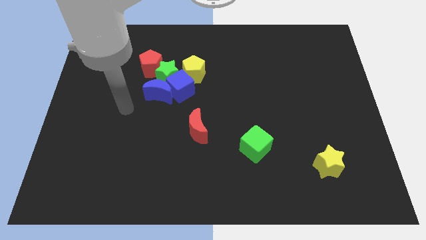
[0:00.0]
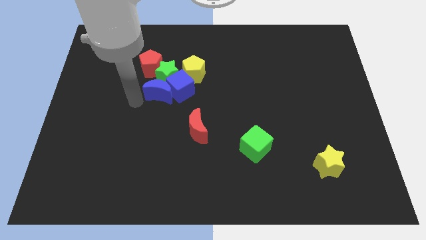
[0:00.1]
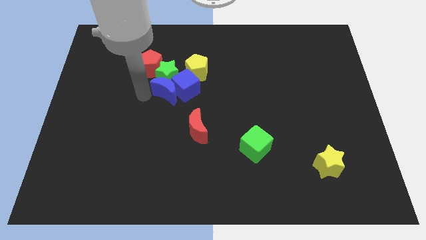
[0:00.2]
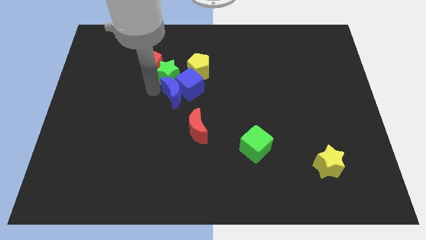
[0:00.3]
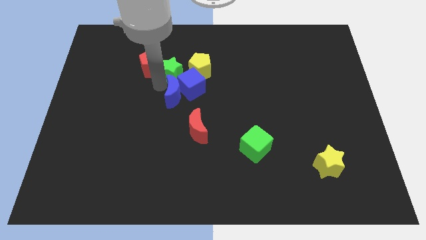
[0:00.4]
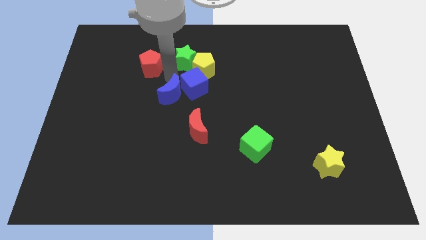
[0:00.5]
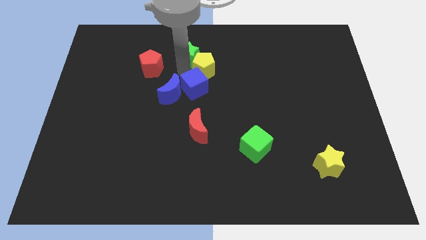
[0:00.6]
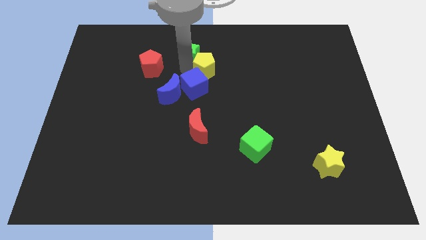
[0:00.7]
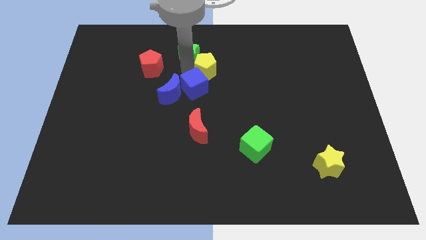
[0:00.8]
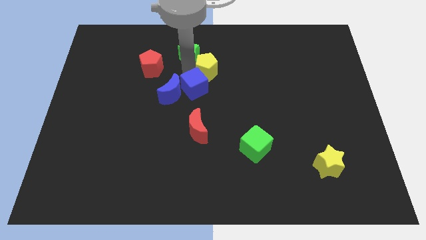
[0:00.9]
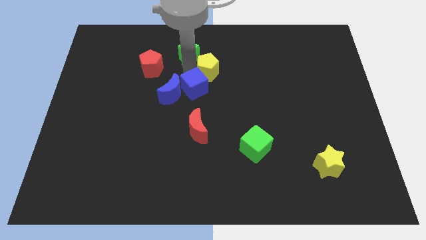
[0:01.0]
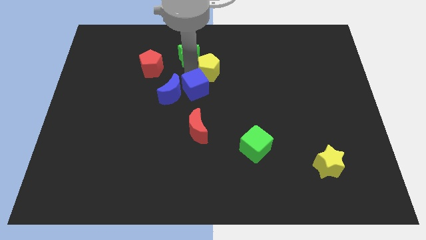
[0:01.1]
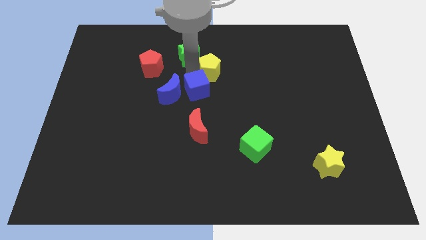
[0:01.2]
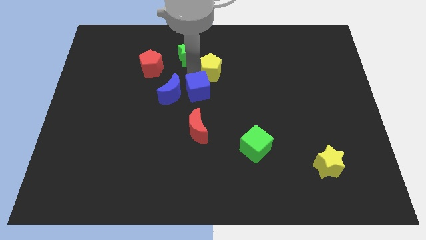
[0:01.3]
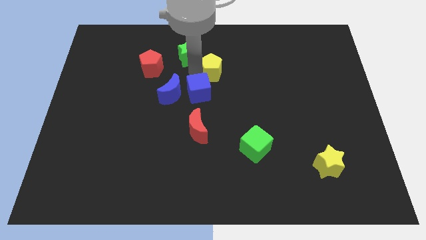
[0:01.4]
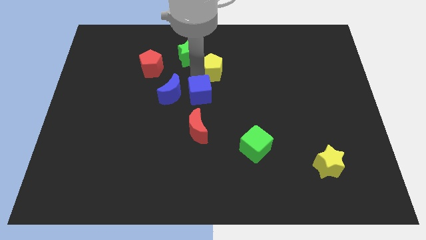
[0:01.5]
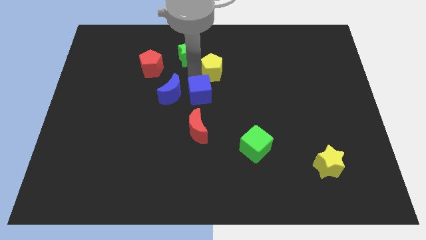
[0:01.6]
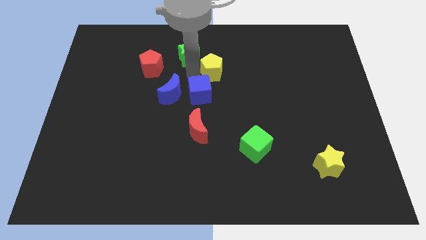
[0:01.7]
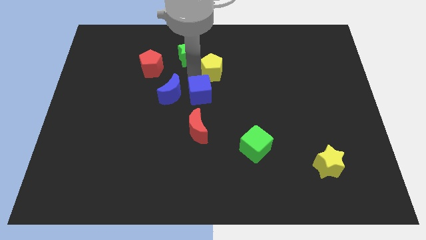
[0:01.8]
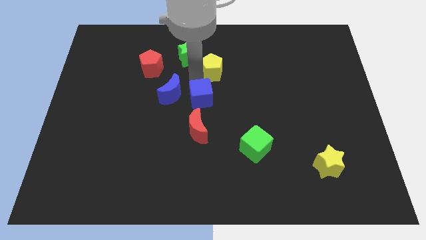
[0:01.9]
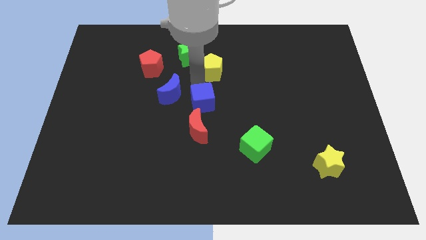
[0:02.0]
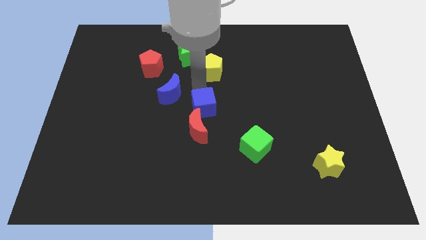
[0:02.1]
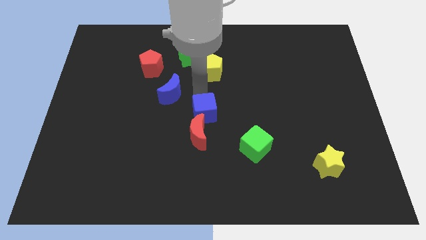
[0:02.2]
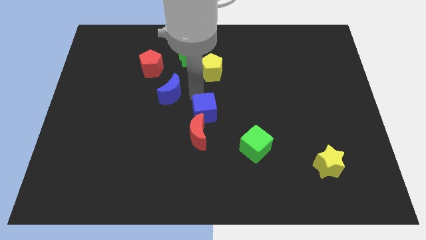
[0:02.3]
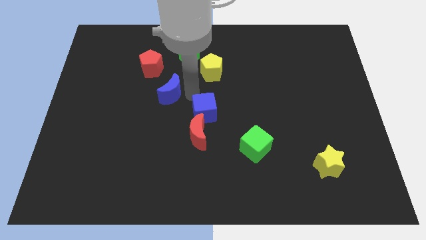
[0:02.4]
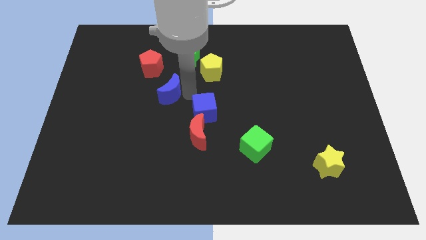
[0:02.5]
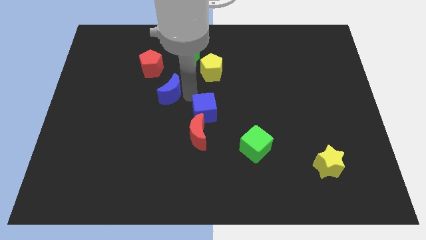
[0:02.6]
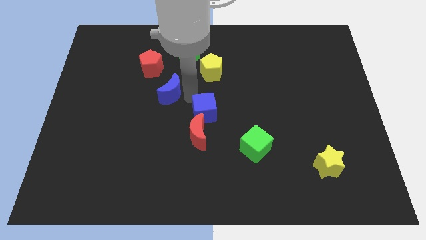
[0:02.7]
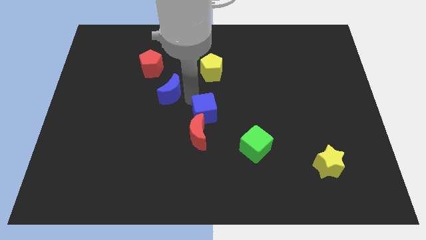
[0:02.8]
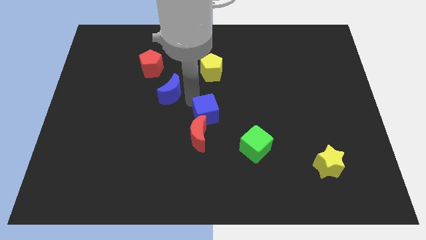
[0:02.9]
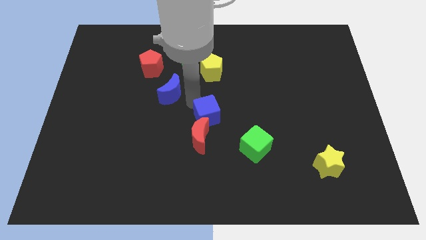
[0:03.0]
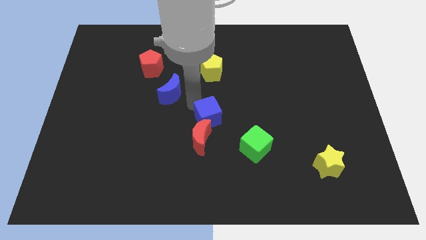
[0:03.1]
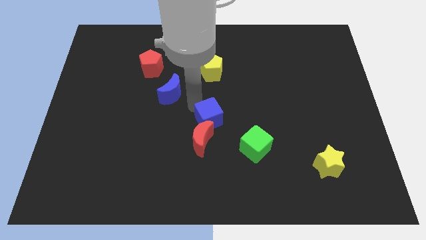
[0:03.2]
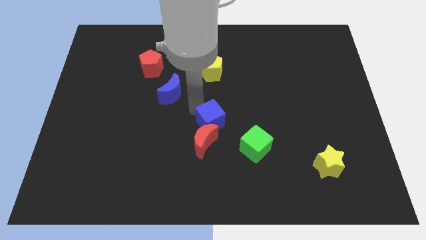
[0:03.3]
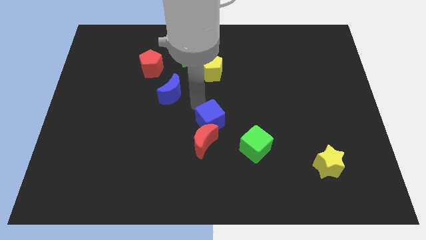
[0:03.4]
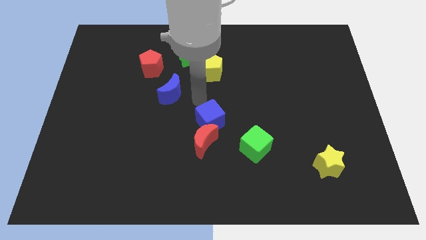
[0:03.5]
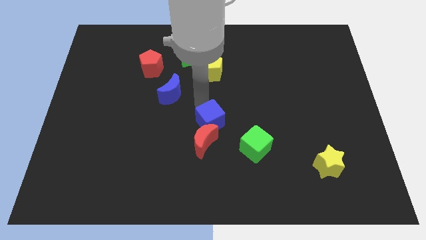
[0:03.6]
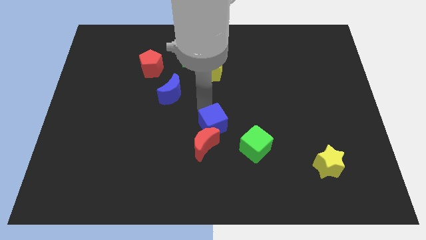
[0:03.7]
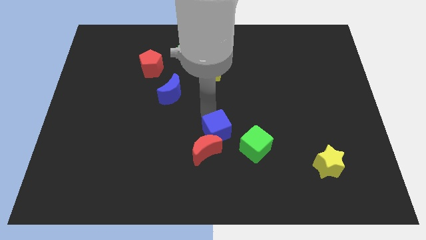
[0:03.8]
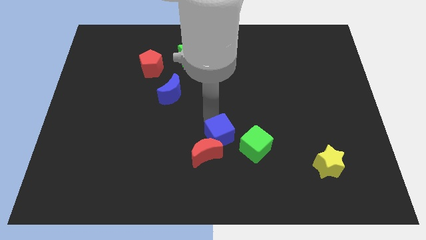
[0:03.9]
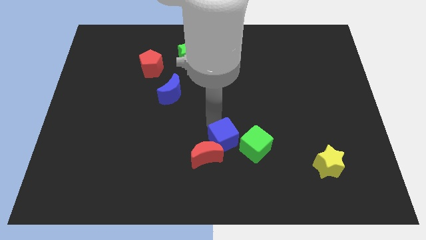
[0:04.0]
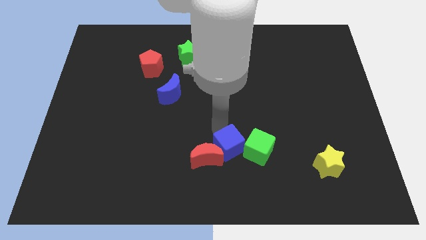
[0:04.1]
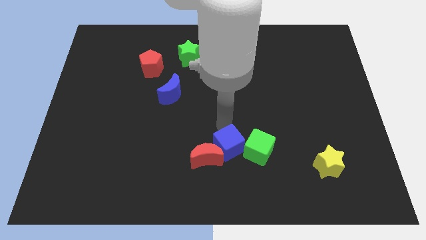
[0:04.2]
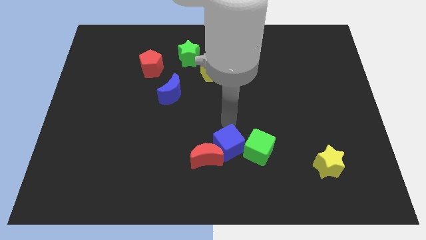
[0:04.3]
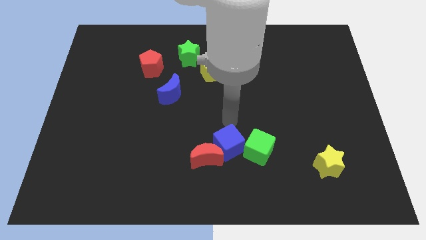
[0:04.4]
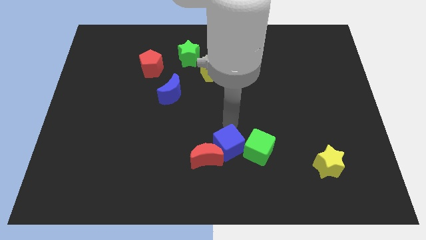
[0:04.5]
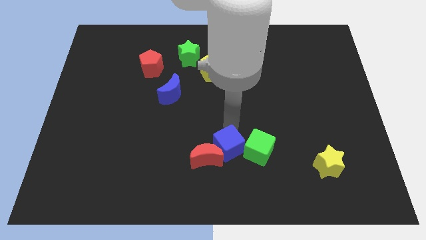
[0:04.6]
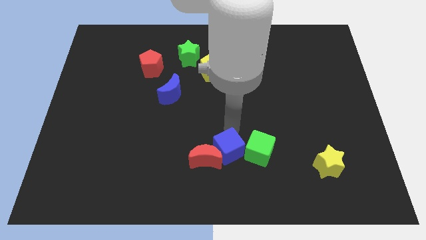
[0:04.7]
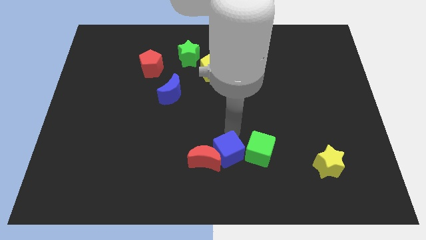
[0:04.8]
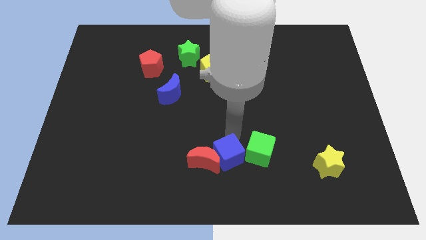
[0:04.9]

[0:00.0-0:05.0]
move the blue cube to the bottom
